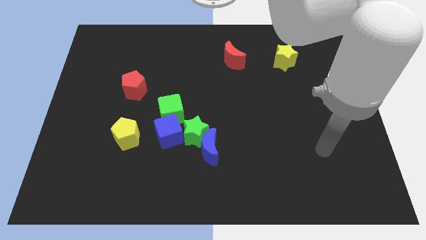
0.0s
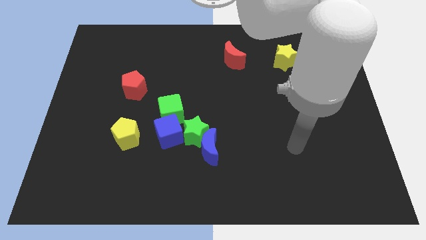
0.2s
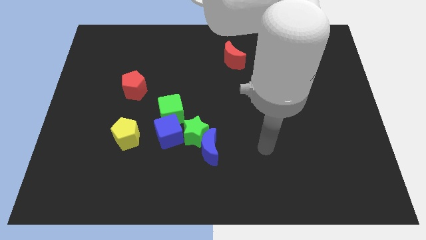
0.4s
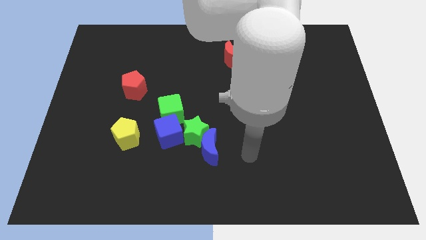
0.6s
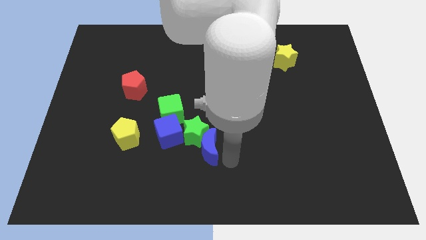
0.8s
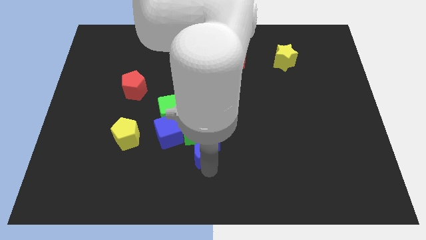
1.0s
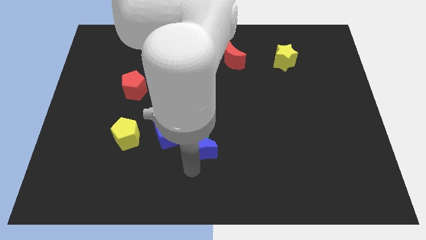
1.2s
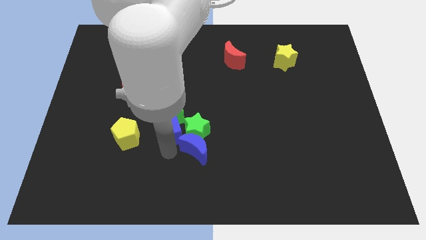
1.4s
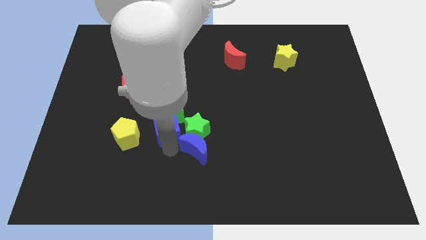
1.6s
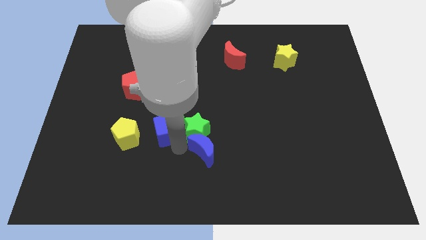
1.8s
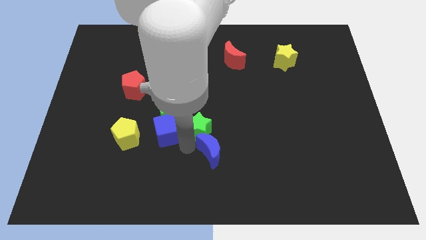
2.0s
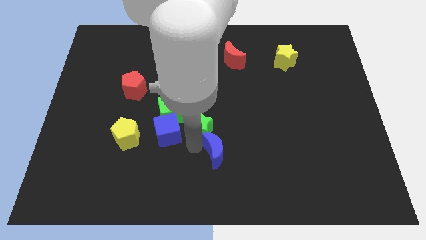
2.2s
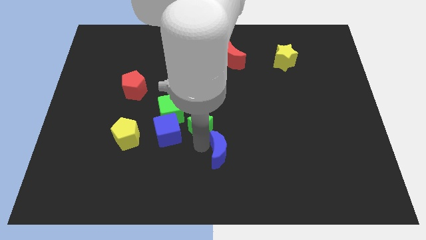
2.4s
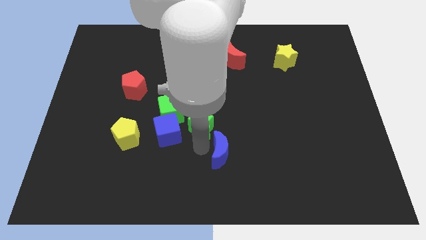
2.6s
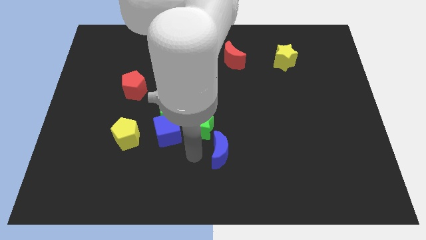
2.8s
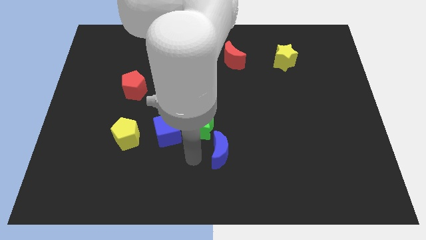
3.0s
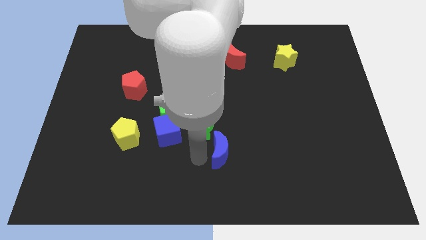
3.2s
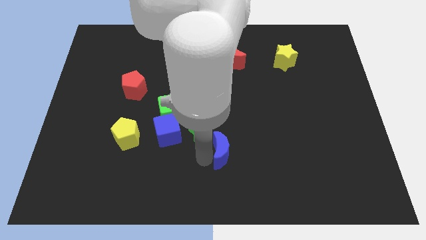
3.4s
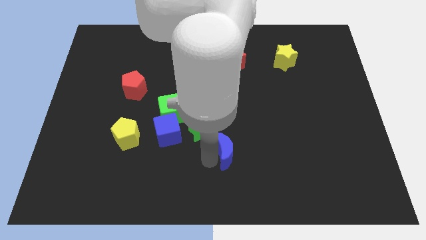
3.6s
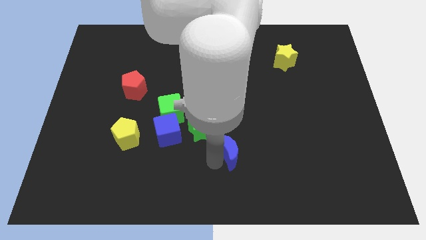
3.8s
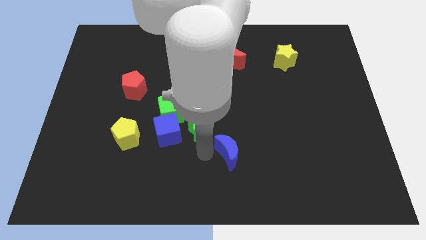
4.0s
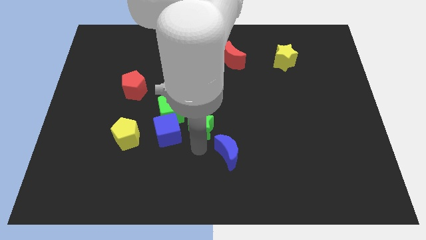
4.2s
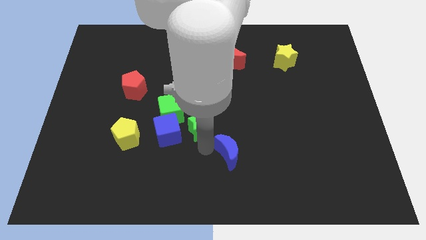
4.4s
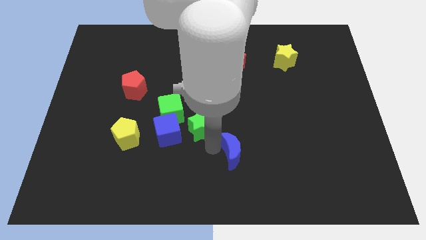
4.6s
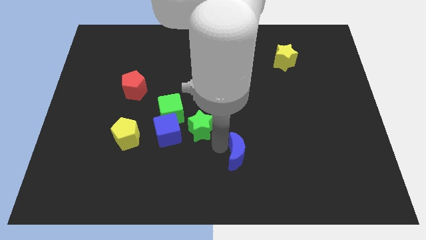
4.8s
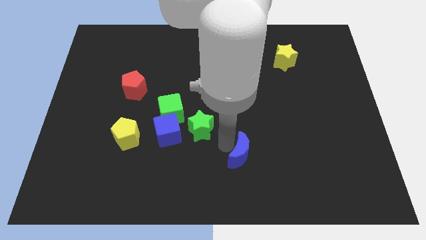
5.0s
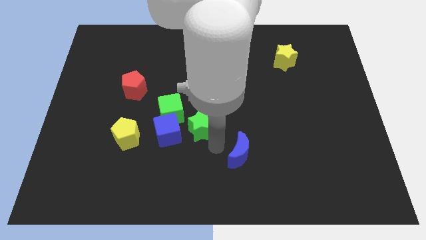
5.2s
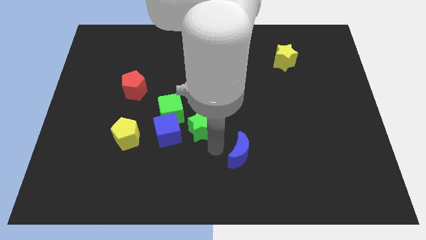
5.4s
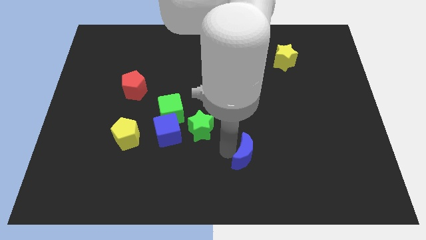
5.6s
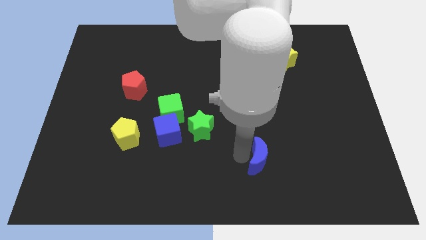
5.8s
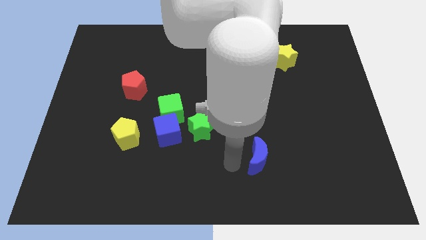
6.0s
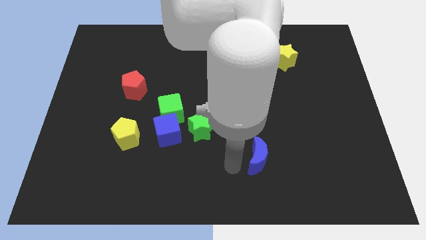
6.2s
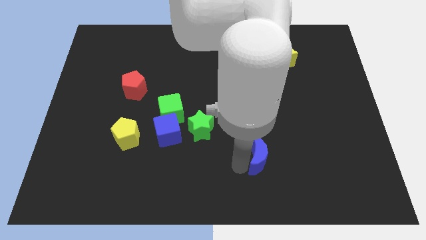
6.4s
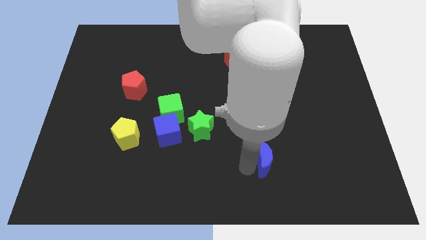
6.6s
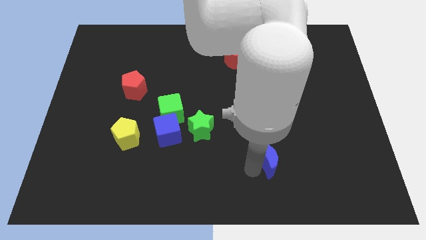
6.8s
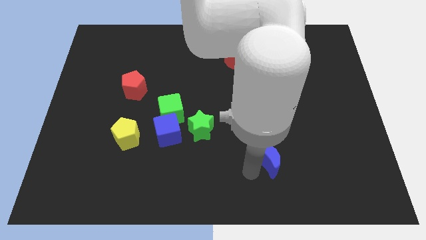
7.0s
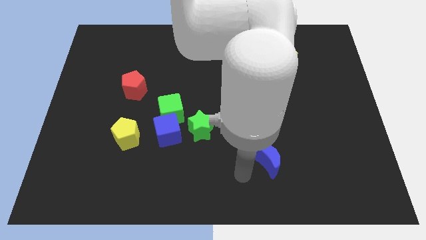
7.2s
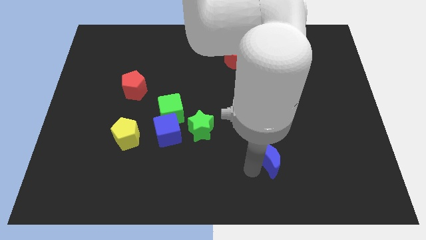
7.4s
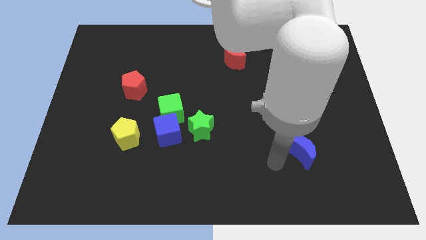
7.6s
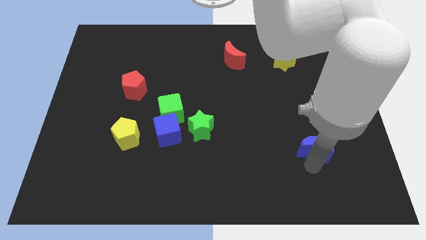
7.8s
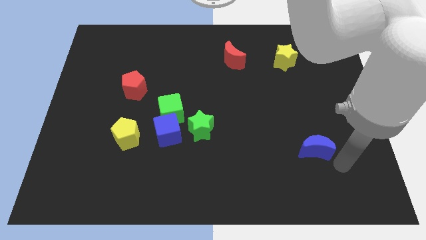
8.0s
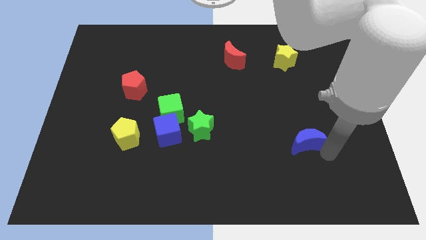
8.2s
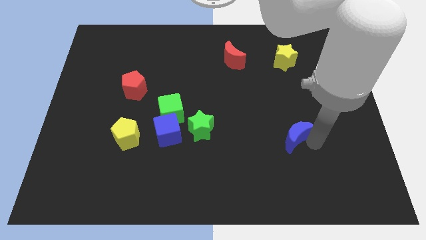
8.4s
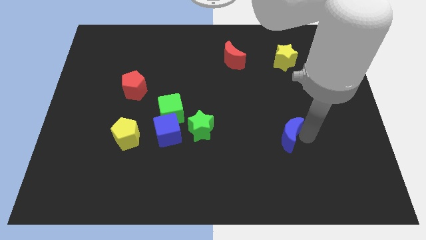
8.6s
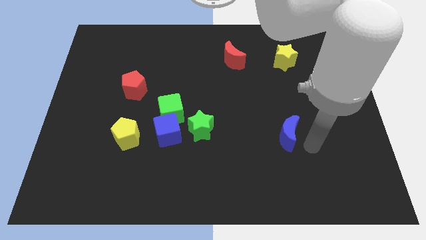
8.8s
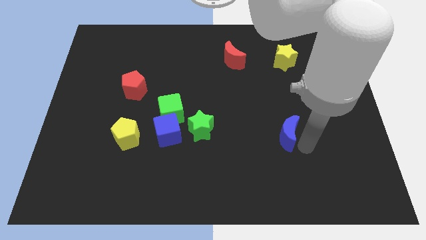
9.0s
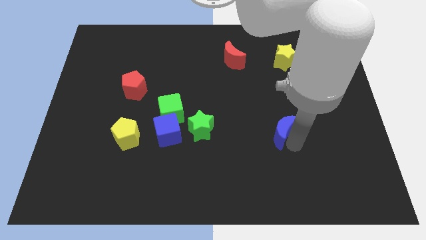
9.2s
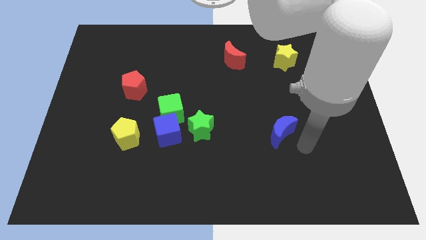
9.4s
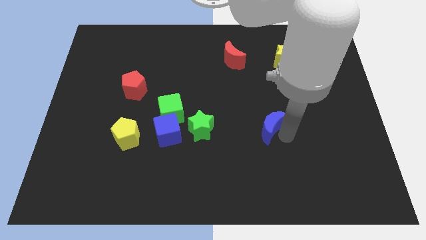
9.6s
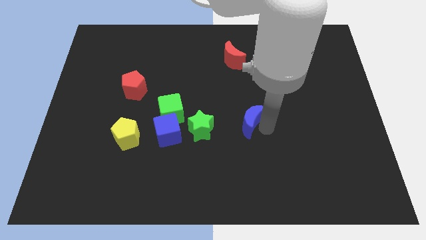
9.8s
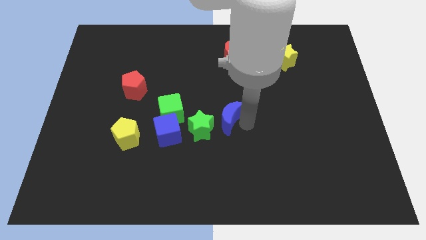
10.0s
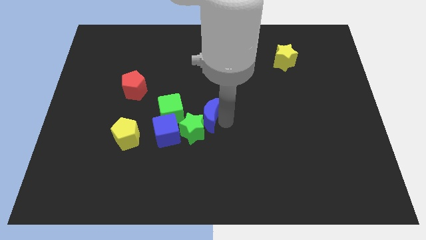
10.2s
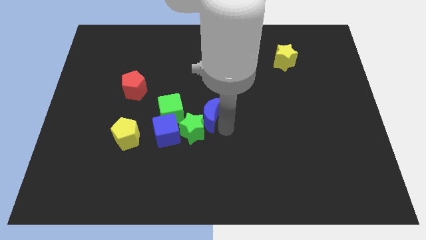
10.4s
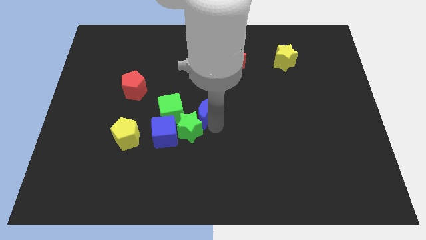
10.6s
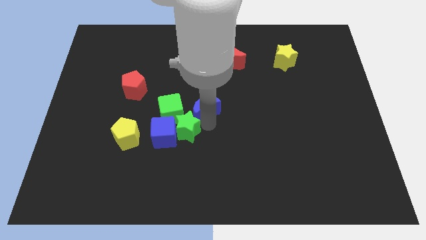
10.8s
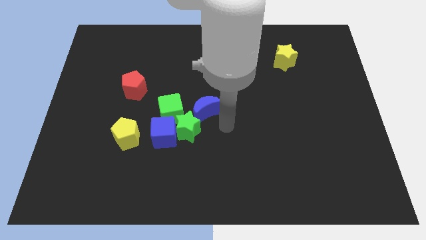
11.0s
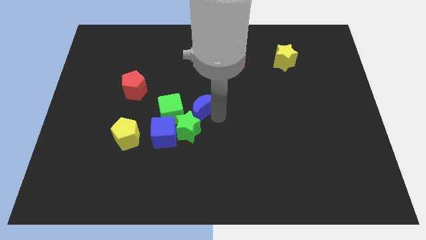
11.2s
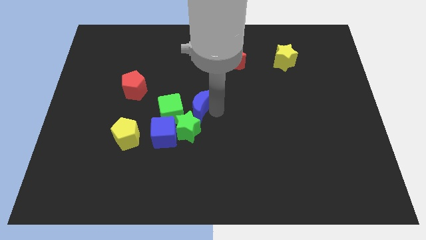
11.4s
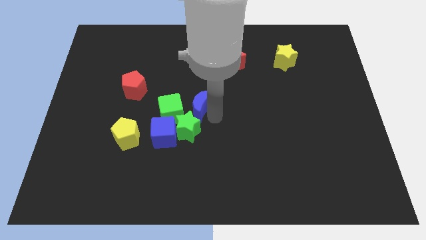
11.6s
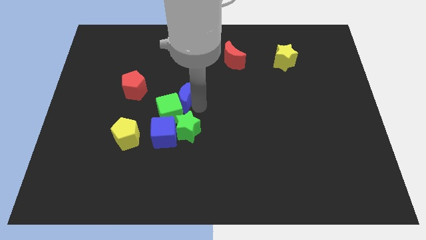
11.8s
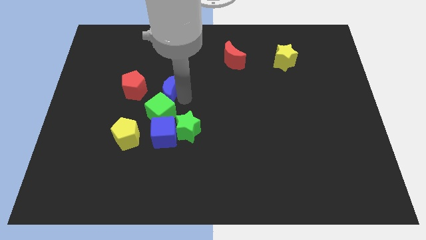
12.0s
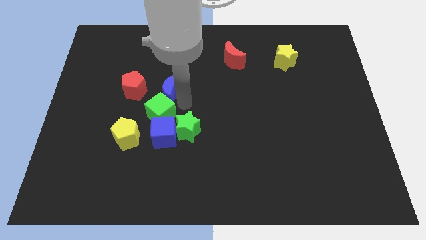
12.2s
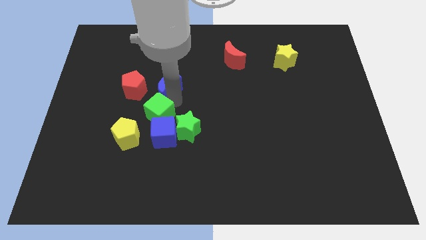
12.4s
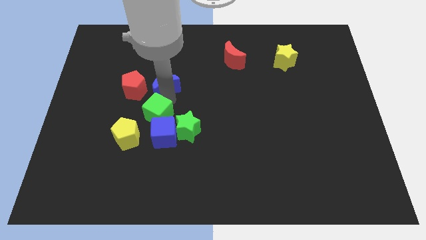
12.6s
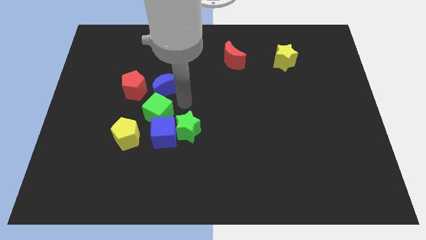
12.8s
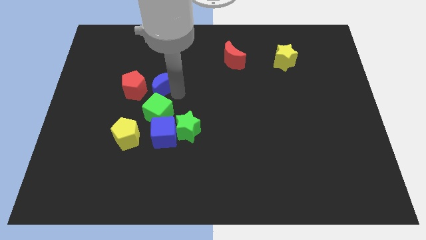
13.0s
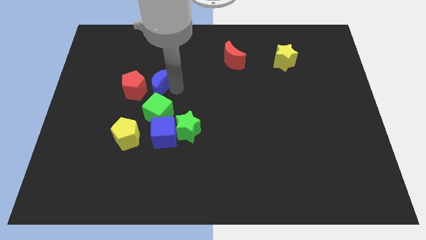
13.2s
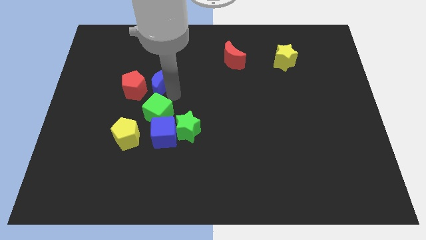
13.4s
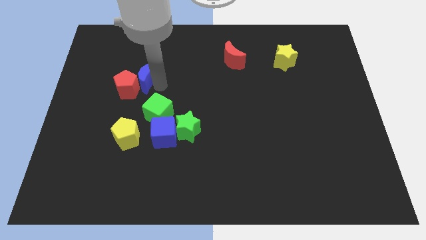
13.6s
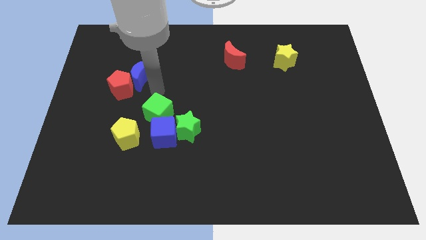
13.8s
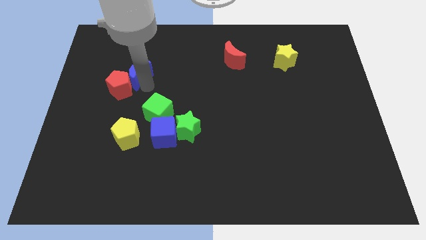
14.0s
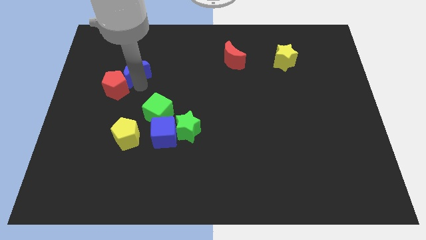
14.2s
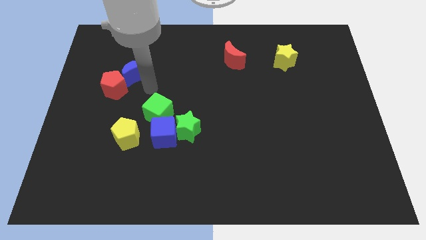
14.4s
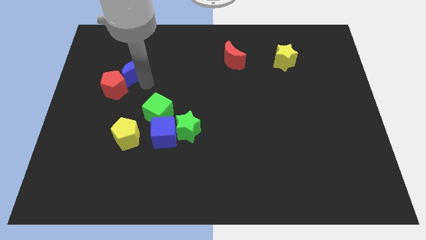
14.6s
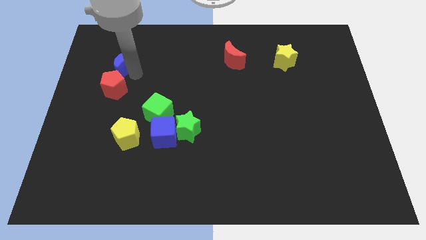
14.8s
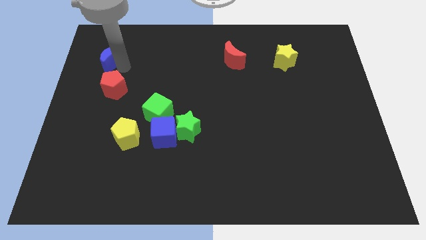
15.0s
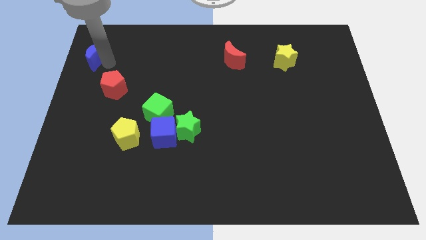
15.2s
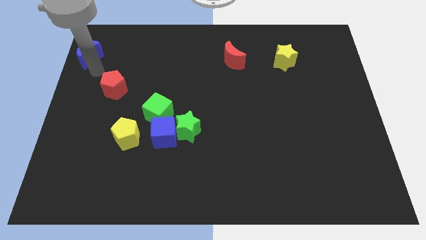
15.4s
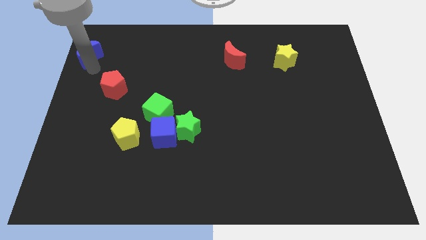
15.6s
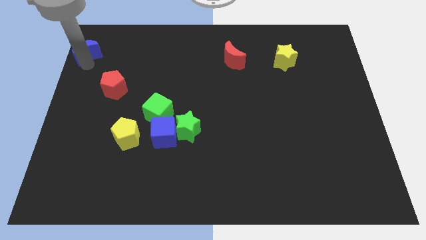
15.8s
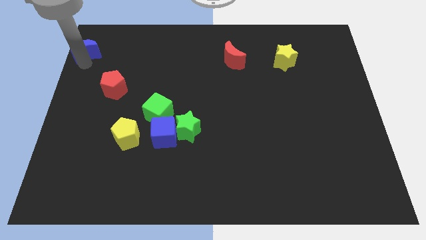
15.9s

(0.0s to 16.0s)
move the blue moon to the top left corner
